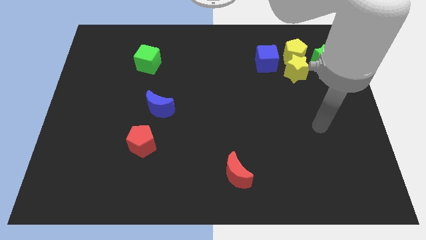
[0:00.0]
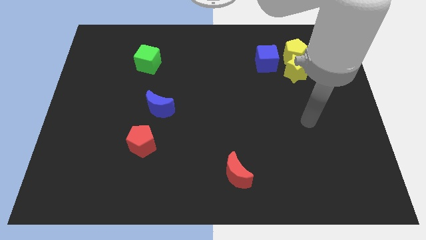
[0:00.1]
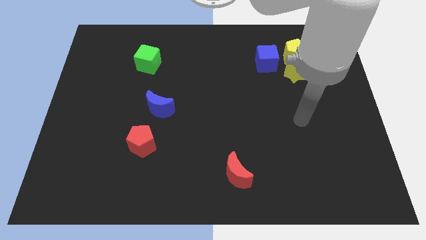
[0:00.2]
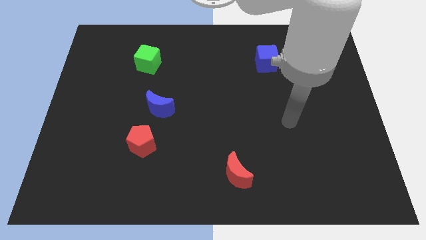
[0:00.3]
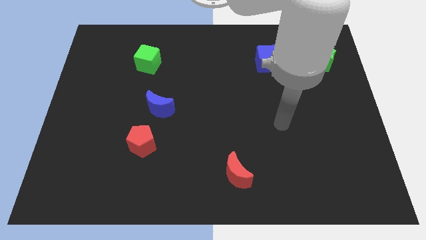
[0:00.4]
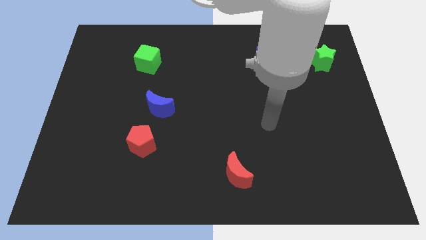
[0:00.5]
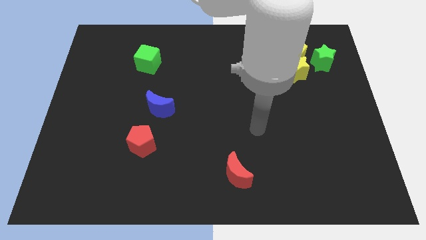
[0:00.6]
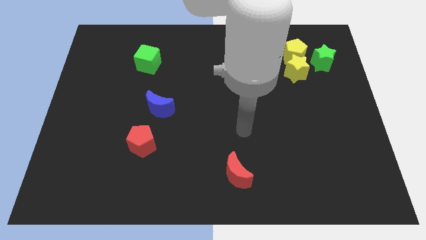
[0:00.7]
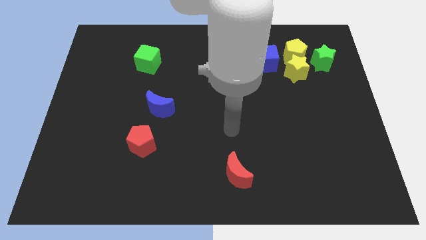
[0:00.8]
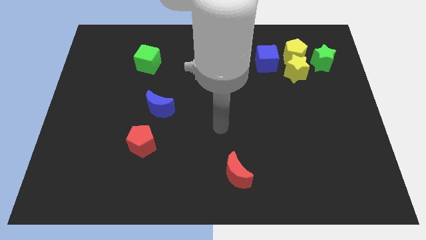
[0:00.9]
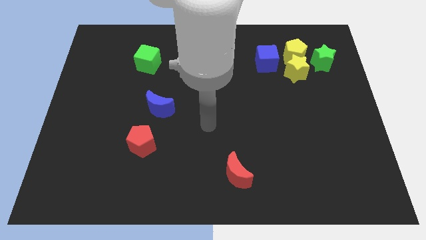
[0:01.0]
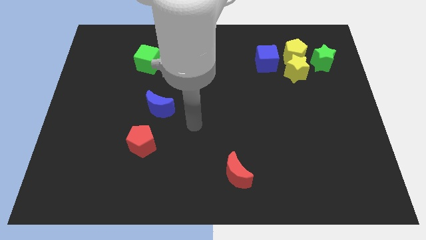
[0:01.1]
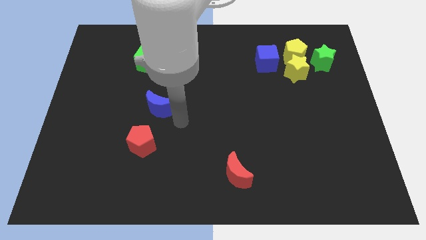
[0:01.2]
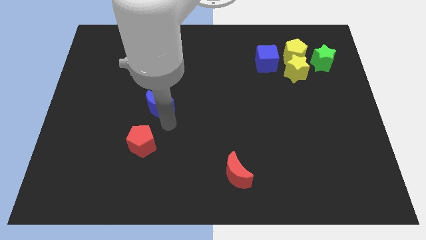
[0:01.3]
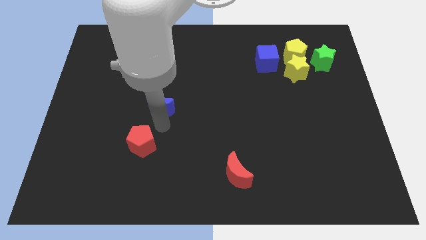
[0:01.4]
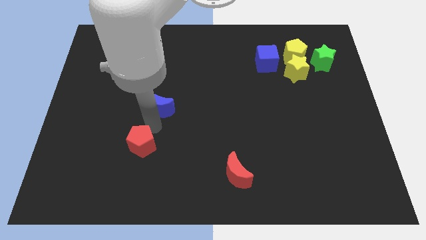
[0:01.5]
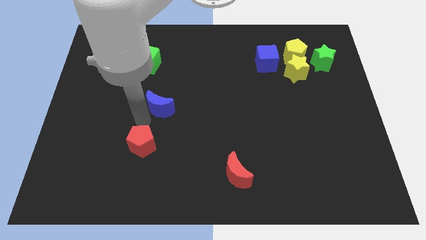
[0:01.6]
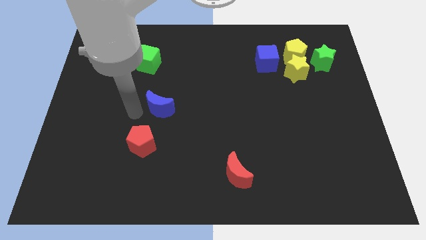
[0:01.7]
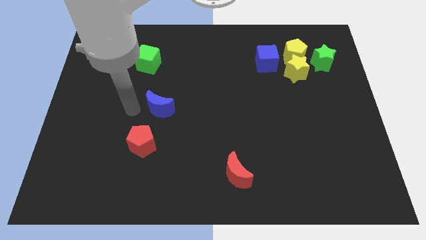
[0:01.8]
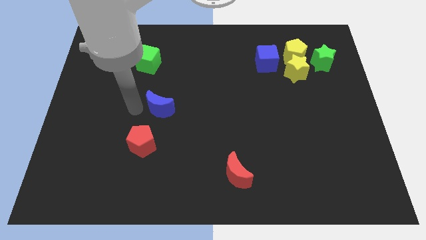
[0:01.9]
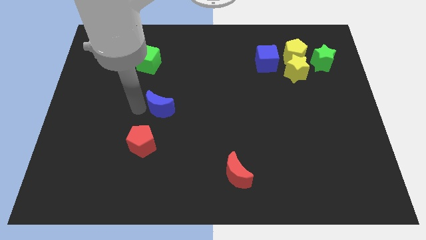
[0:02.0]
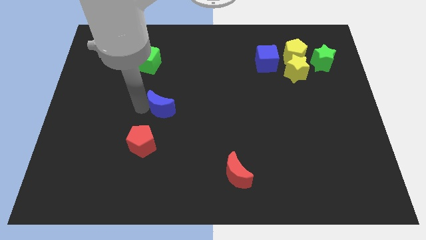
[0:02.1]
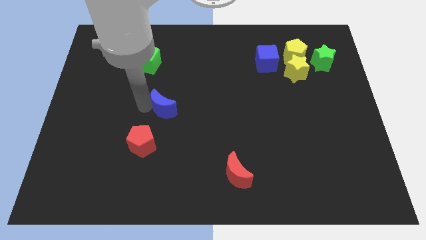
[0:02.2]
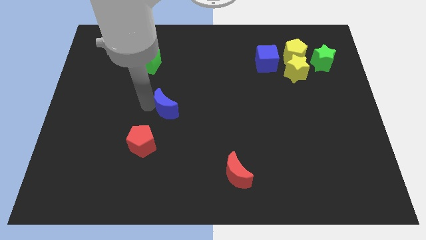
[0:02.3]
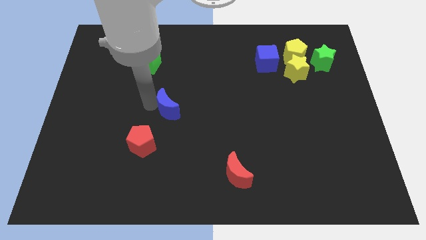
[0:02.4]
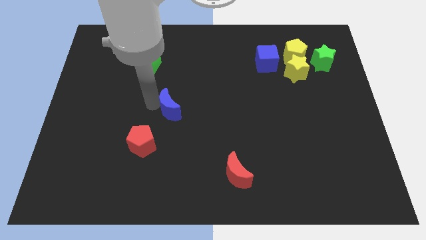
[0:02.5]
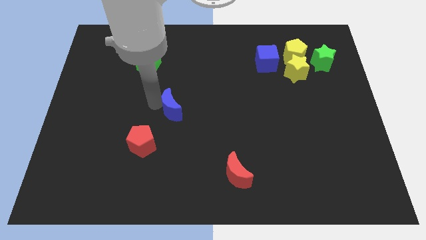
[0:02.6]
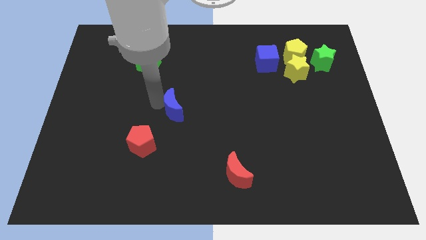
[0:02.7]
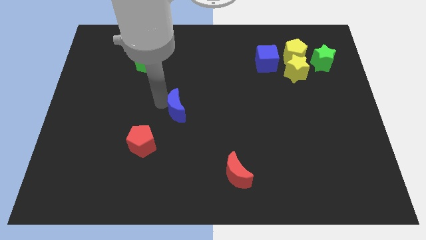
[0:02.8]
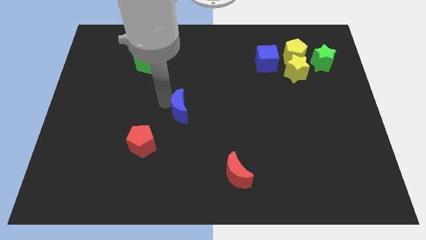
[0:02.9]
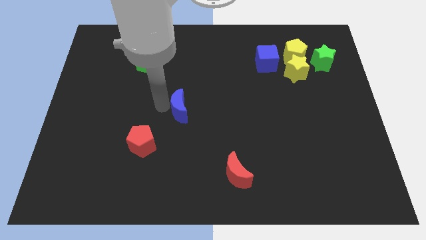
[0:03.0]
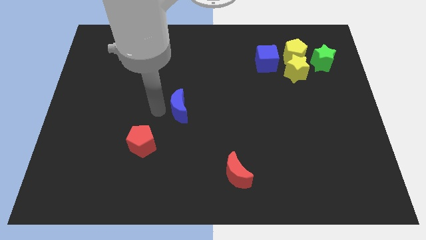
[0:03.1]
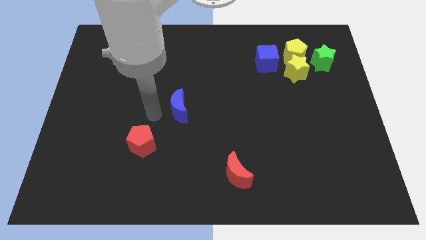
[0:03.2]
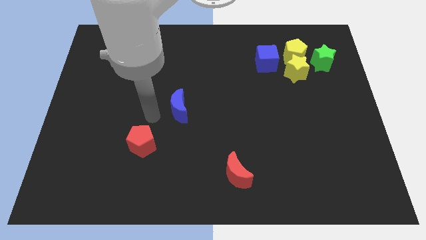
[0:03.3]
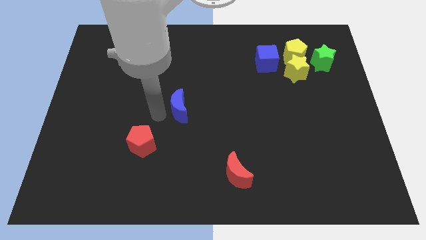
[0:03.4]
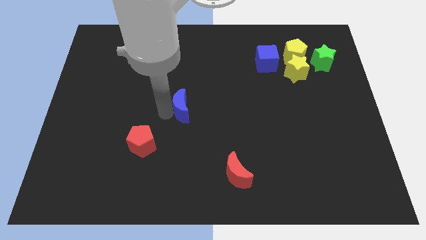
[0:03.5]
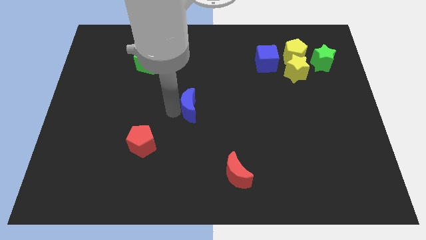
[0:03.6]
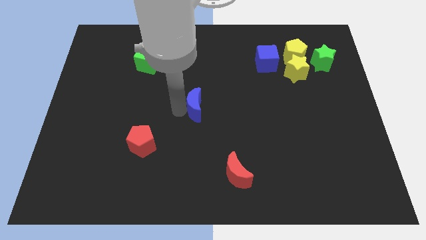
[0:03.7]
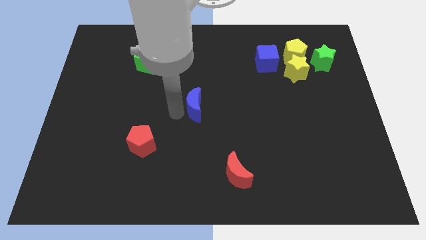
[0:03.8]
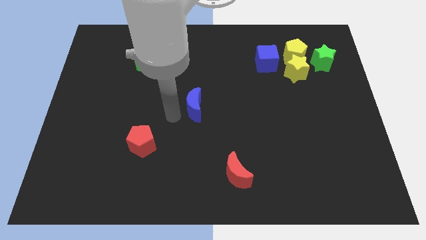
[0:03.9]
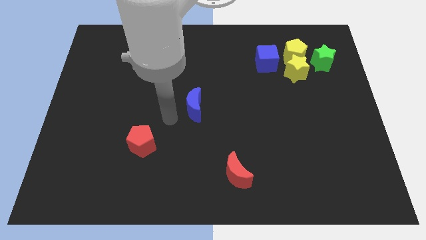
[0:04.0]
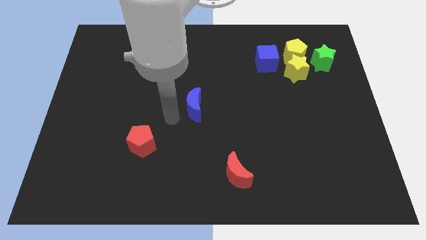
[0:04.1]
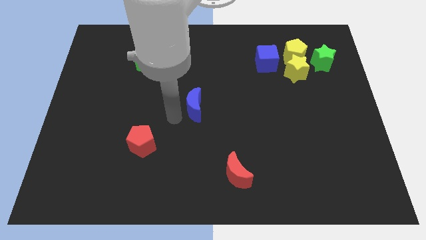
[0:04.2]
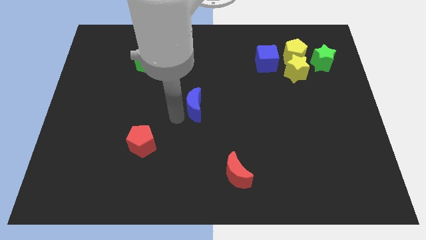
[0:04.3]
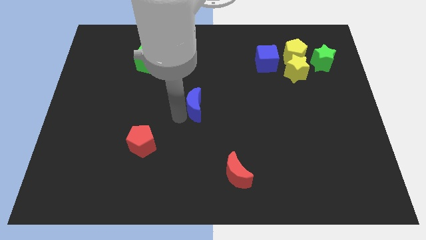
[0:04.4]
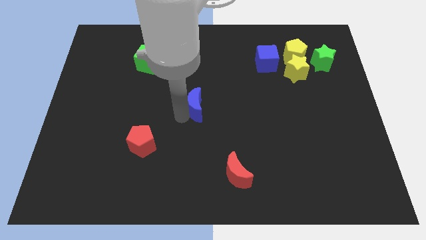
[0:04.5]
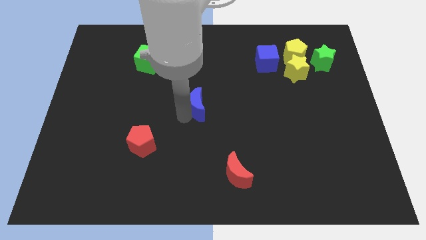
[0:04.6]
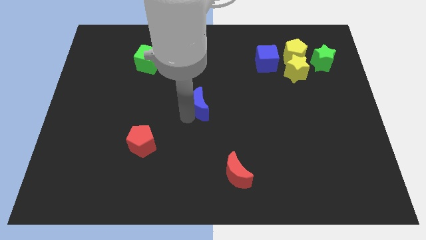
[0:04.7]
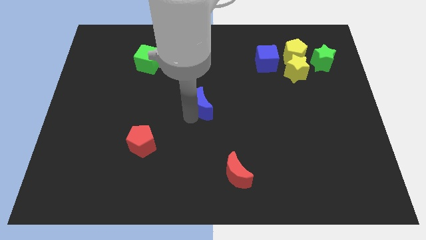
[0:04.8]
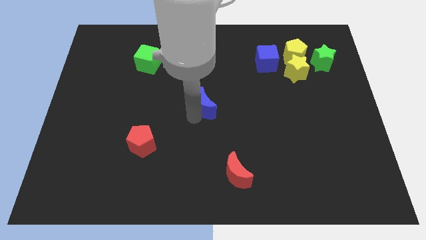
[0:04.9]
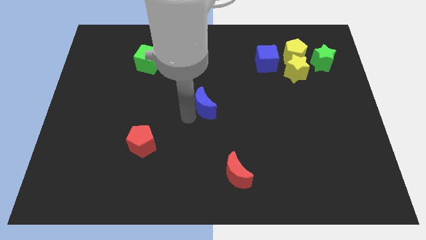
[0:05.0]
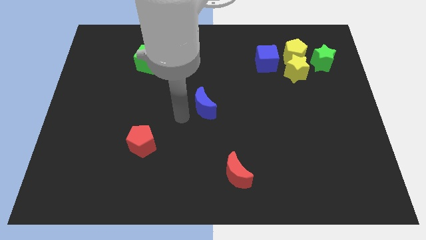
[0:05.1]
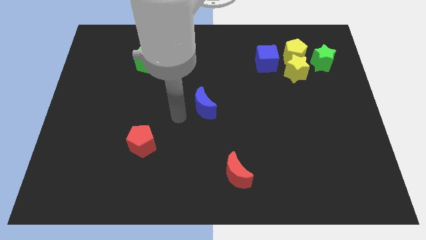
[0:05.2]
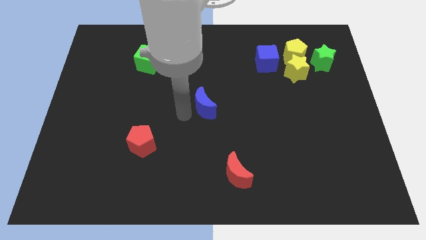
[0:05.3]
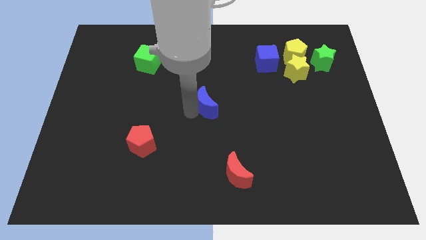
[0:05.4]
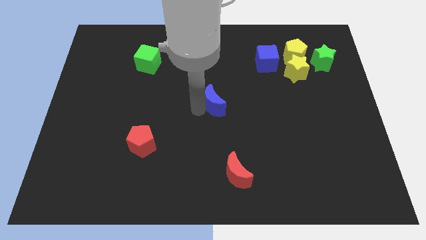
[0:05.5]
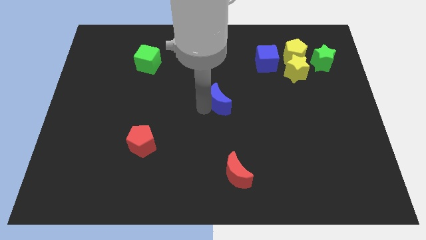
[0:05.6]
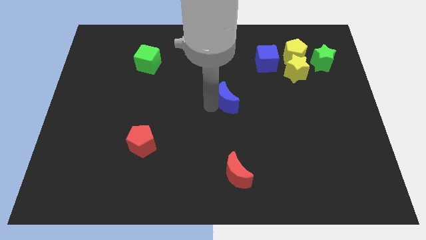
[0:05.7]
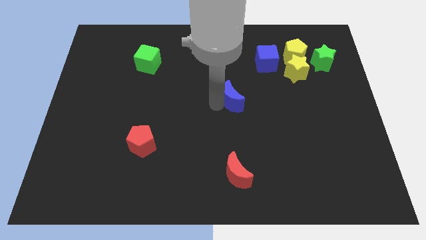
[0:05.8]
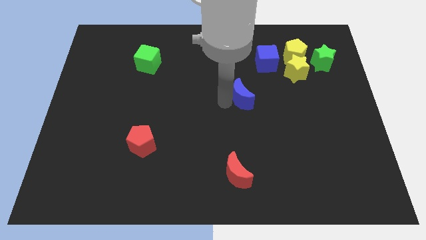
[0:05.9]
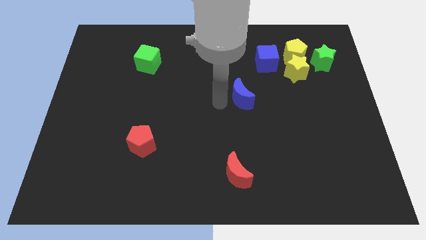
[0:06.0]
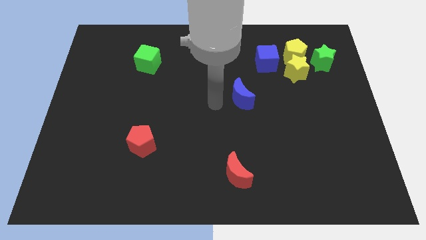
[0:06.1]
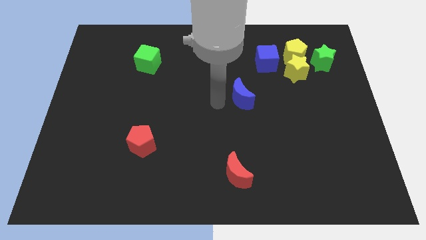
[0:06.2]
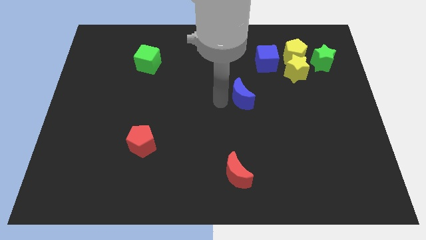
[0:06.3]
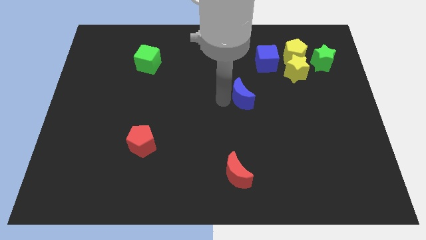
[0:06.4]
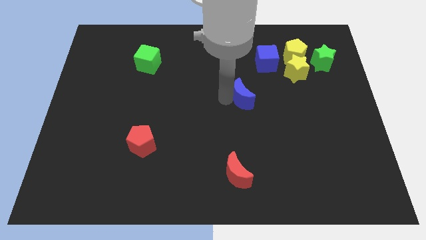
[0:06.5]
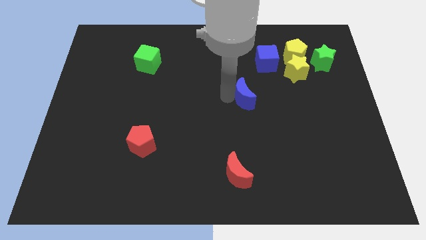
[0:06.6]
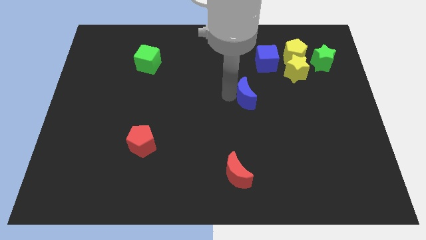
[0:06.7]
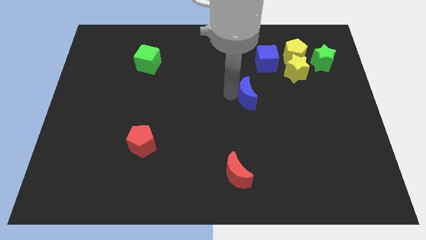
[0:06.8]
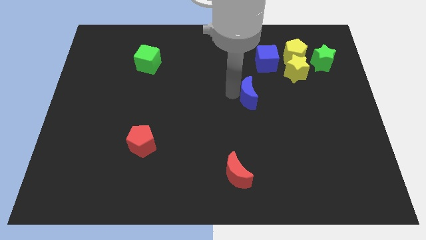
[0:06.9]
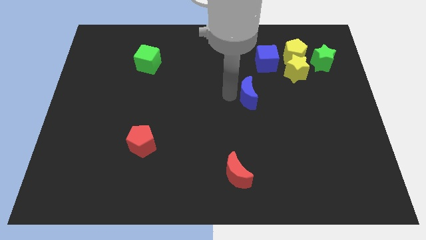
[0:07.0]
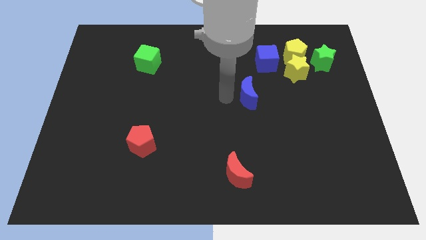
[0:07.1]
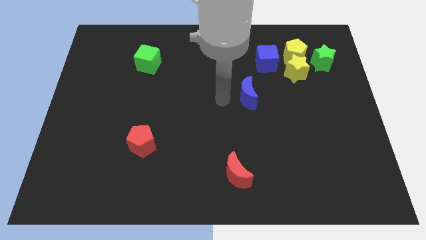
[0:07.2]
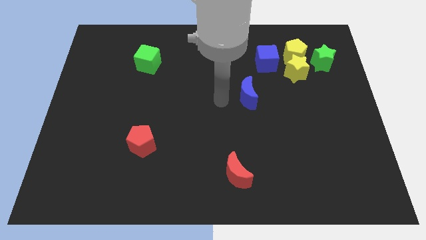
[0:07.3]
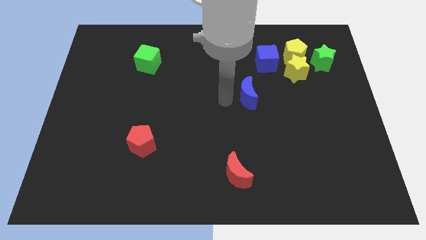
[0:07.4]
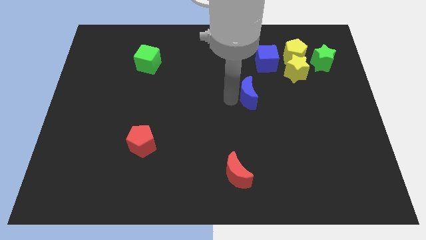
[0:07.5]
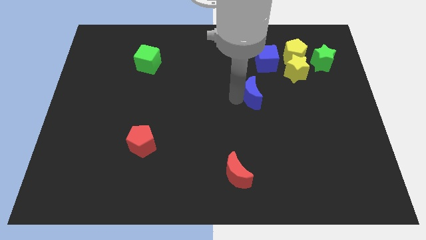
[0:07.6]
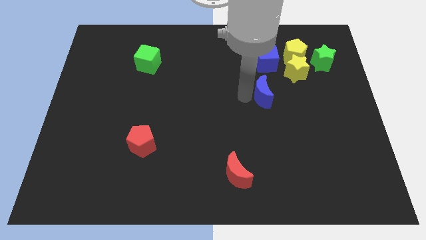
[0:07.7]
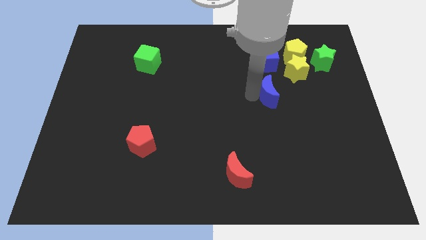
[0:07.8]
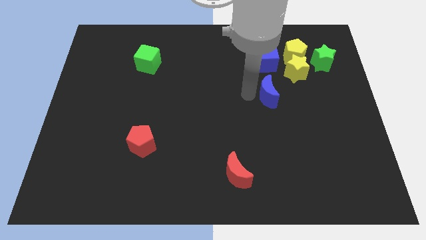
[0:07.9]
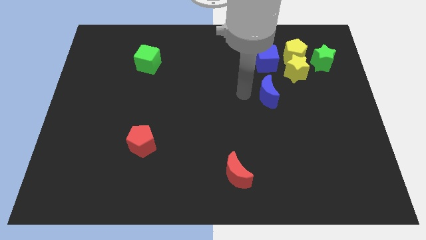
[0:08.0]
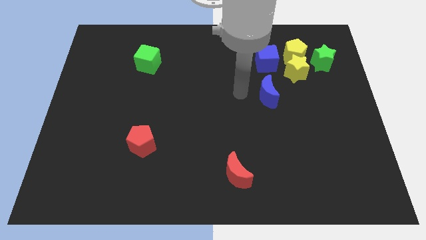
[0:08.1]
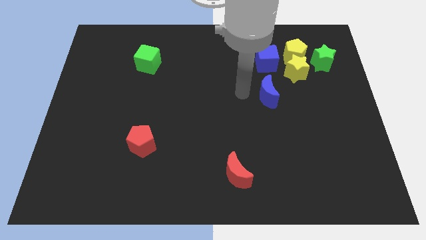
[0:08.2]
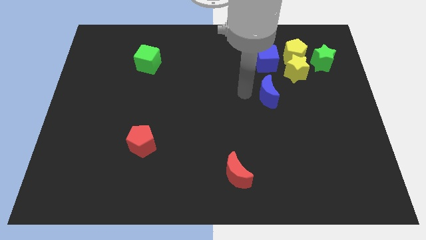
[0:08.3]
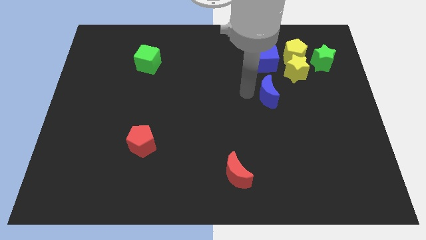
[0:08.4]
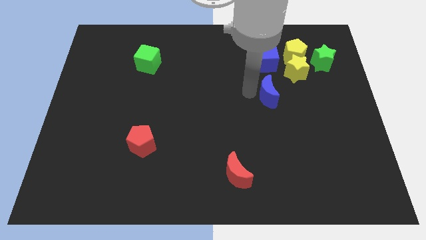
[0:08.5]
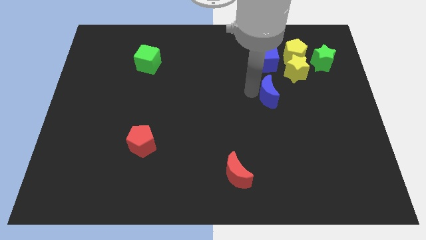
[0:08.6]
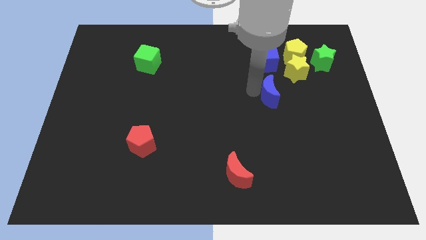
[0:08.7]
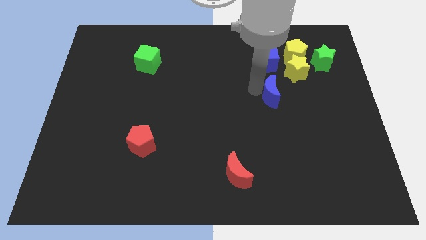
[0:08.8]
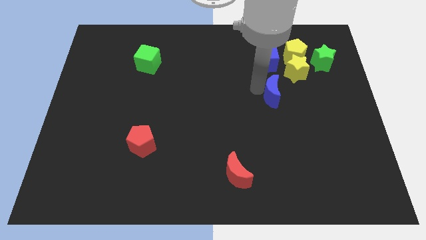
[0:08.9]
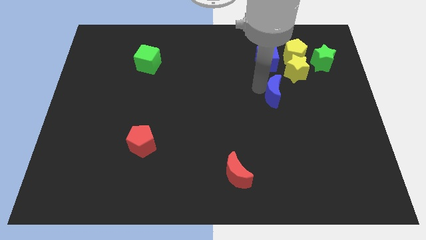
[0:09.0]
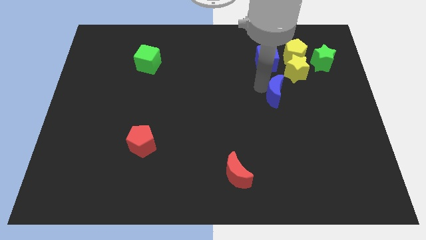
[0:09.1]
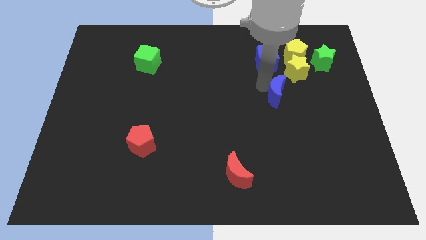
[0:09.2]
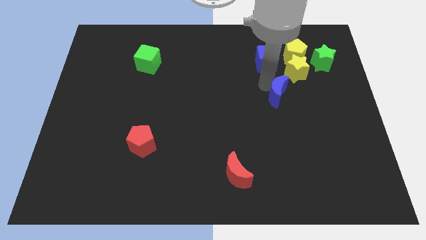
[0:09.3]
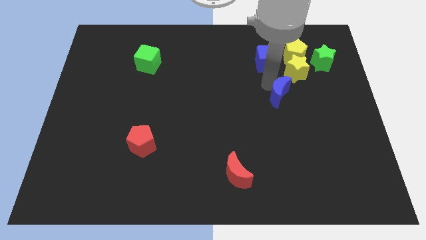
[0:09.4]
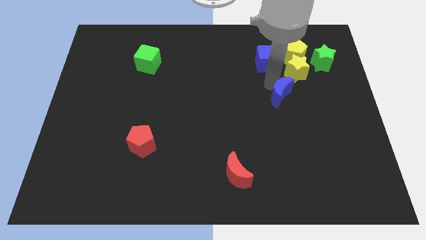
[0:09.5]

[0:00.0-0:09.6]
move the blue moon below the yellow star
